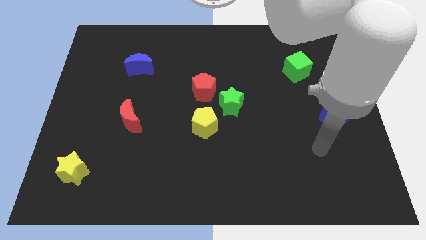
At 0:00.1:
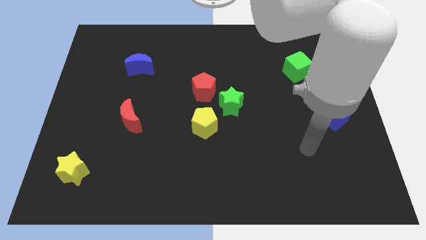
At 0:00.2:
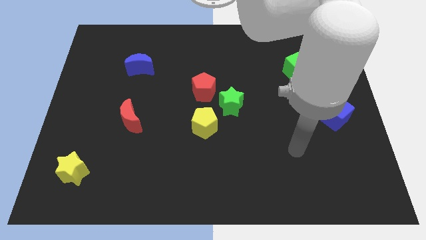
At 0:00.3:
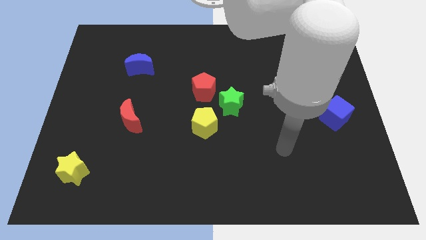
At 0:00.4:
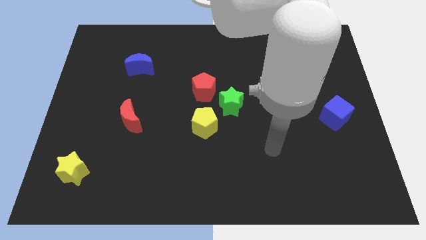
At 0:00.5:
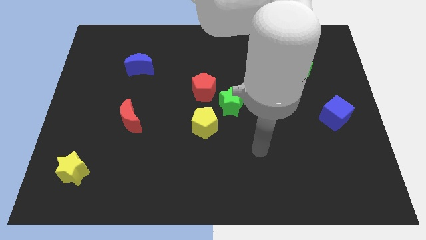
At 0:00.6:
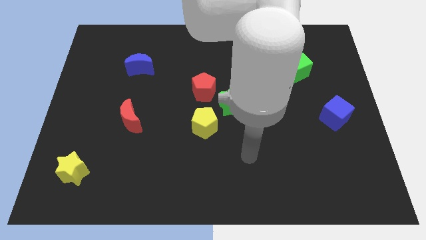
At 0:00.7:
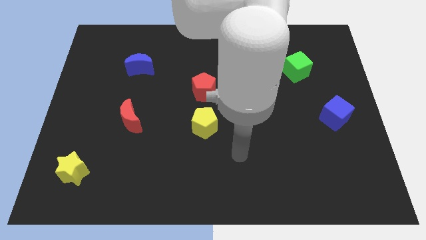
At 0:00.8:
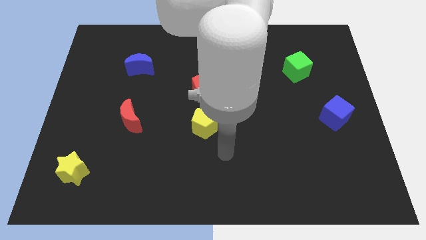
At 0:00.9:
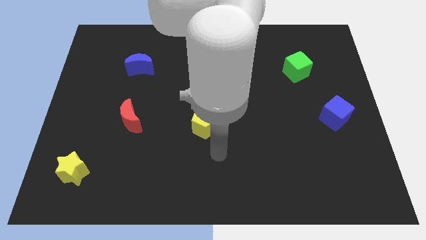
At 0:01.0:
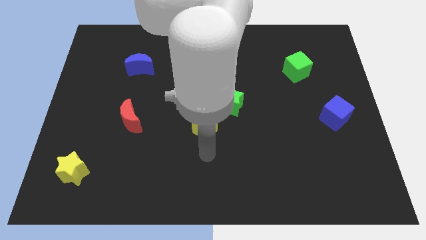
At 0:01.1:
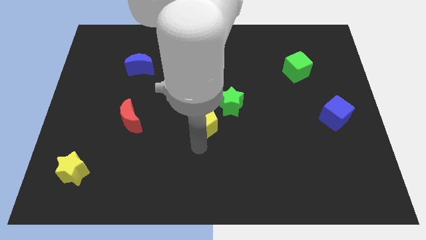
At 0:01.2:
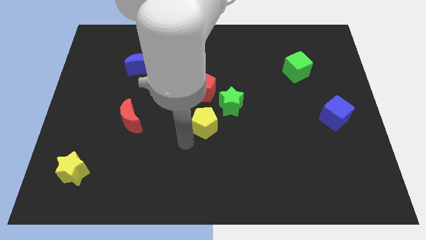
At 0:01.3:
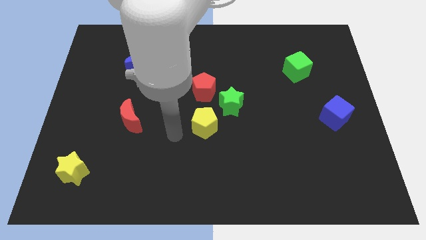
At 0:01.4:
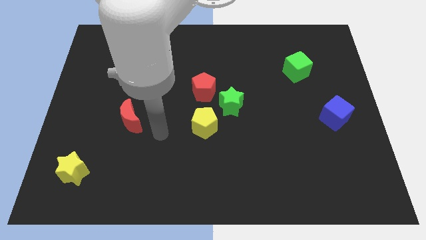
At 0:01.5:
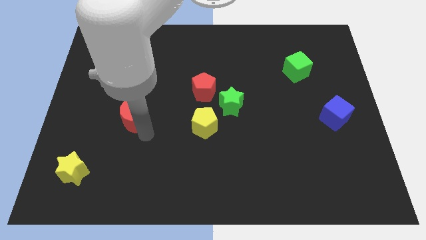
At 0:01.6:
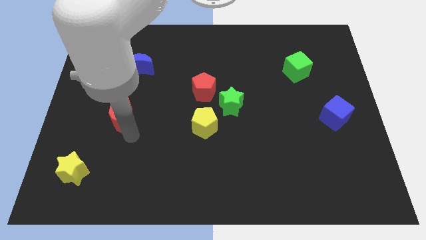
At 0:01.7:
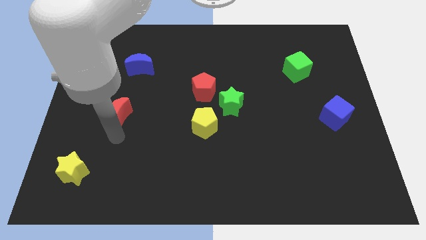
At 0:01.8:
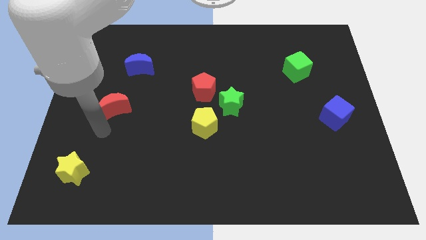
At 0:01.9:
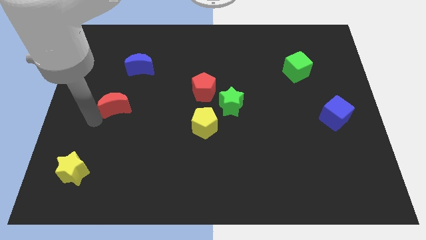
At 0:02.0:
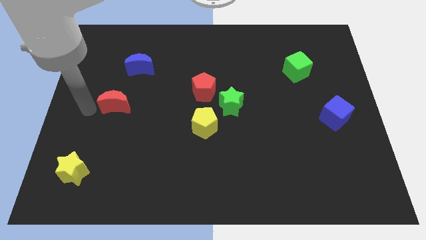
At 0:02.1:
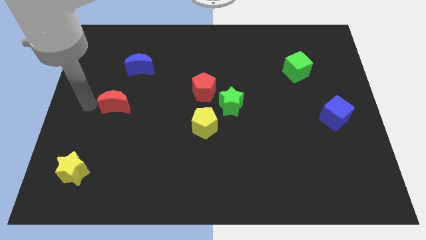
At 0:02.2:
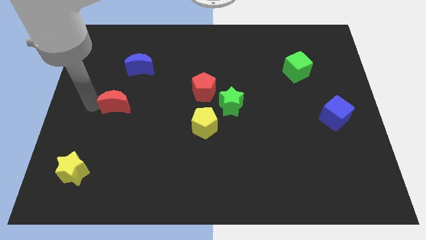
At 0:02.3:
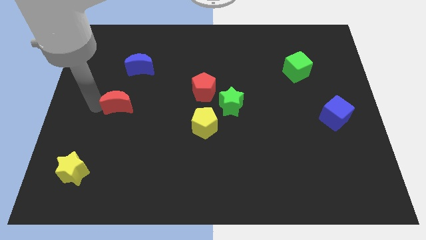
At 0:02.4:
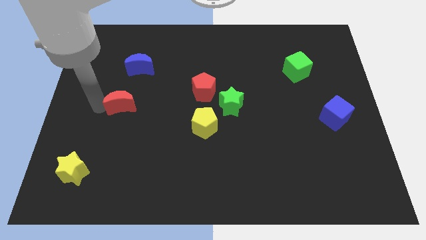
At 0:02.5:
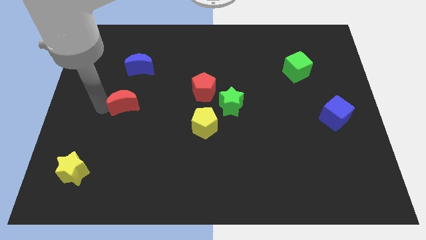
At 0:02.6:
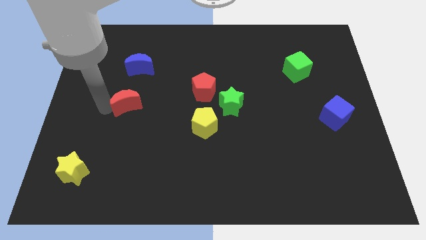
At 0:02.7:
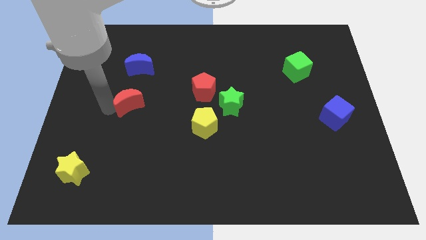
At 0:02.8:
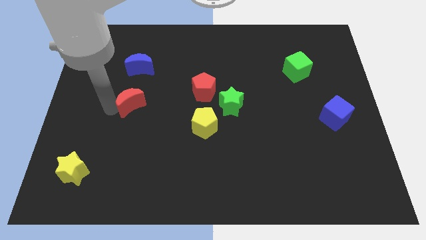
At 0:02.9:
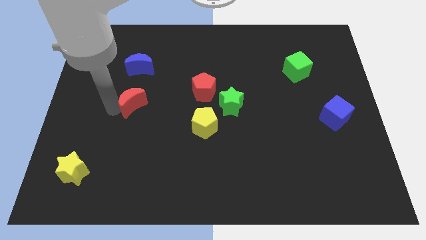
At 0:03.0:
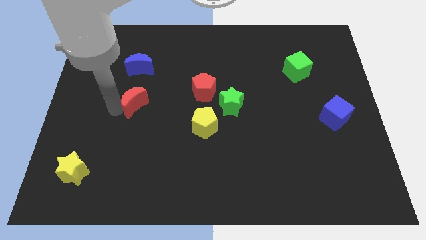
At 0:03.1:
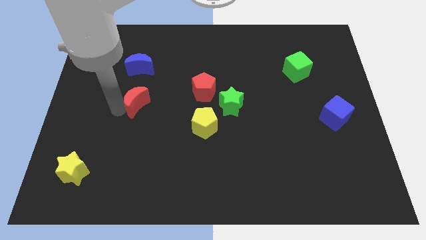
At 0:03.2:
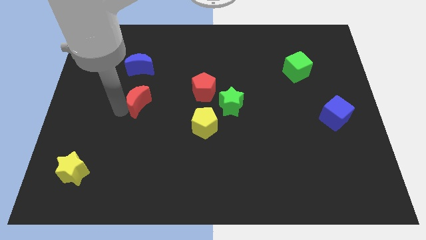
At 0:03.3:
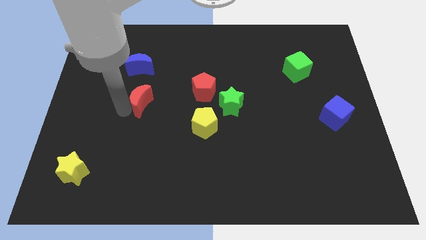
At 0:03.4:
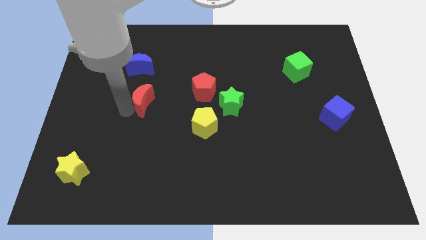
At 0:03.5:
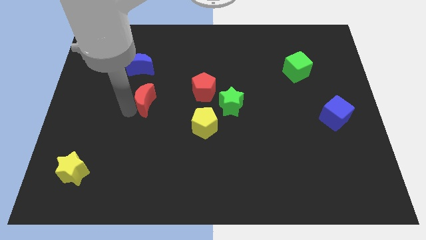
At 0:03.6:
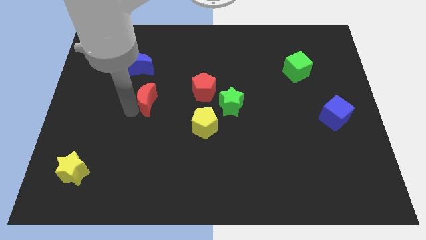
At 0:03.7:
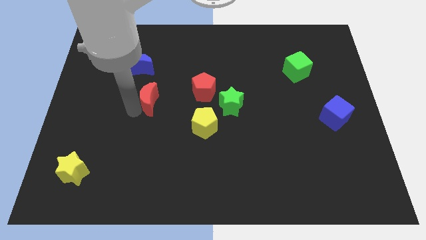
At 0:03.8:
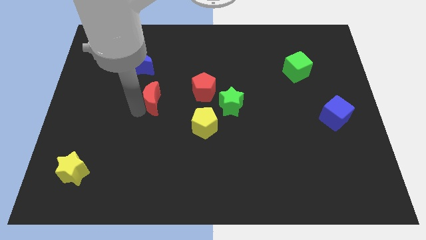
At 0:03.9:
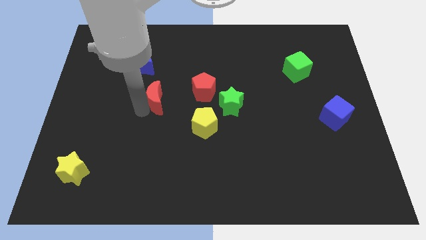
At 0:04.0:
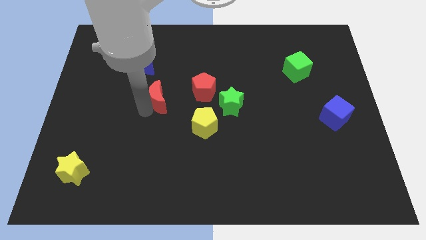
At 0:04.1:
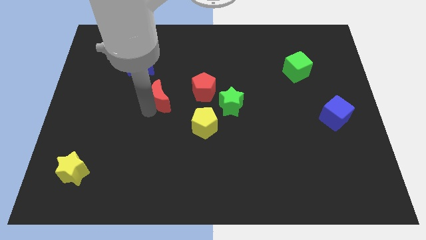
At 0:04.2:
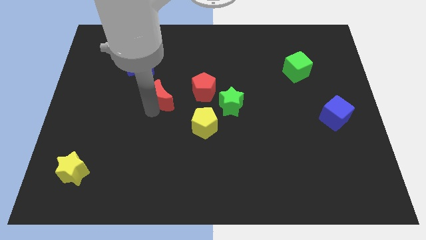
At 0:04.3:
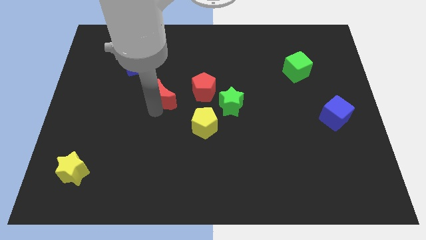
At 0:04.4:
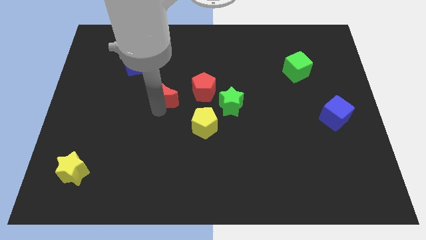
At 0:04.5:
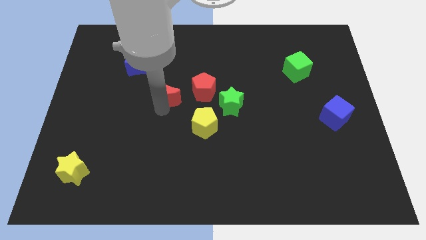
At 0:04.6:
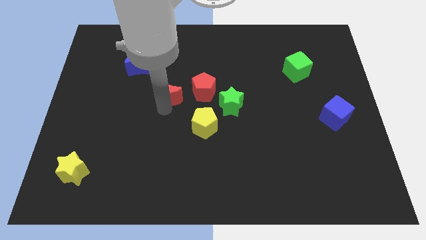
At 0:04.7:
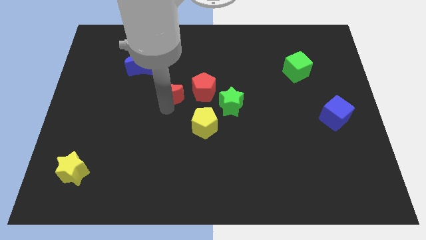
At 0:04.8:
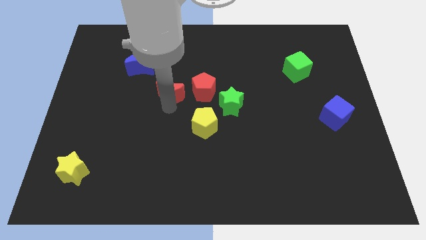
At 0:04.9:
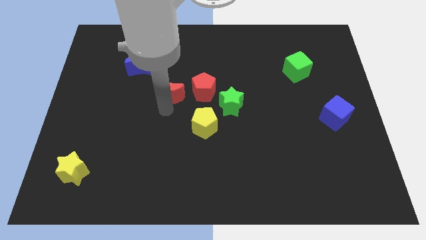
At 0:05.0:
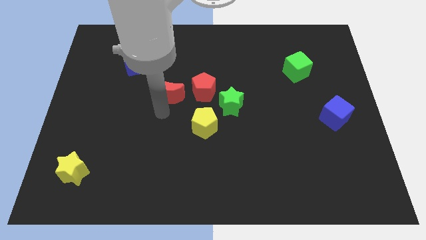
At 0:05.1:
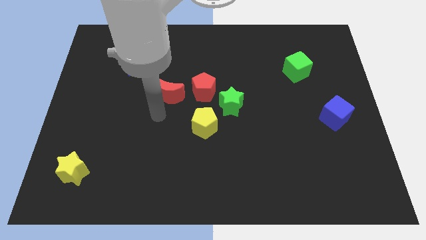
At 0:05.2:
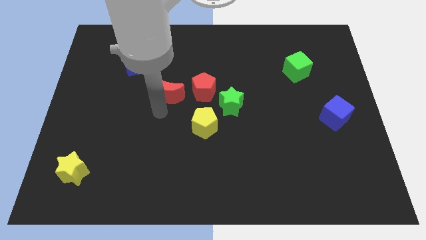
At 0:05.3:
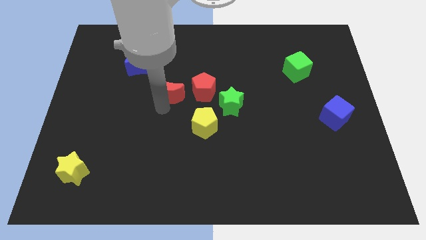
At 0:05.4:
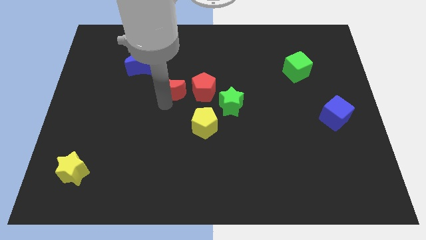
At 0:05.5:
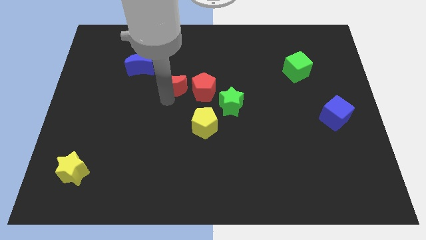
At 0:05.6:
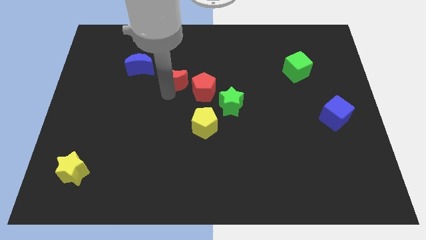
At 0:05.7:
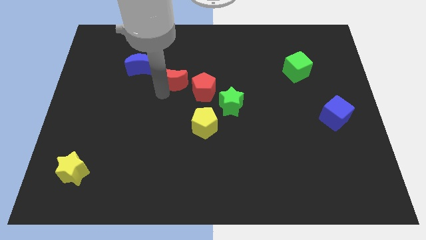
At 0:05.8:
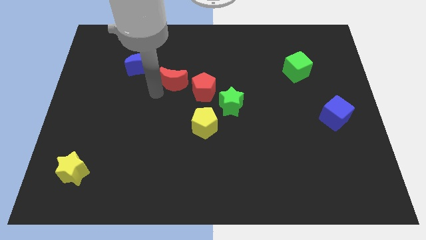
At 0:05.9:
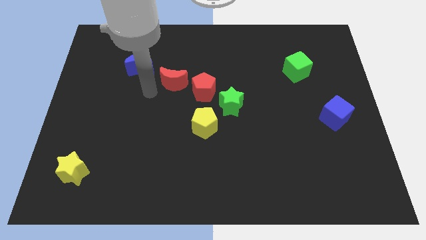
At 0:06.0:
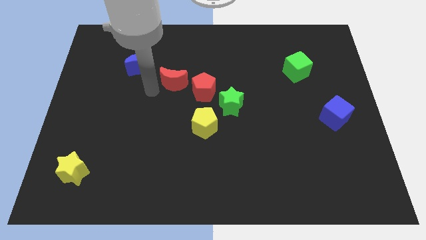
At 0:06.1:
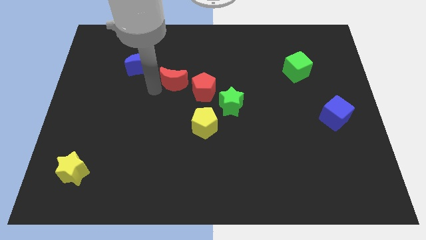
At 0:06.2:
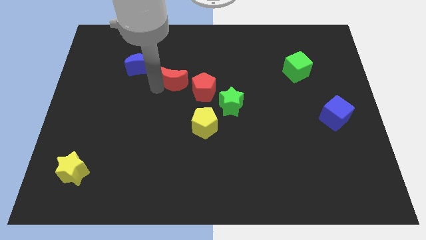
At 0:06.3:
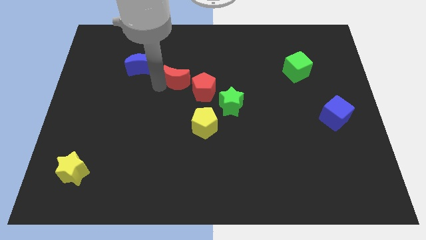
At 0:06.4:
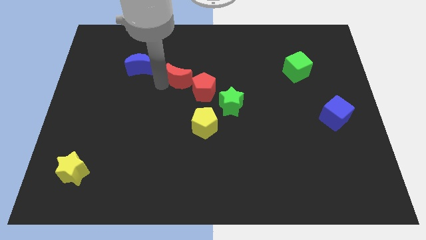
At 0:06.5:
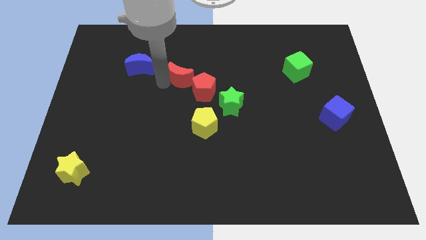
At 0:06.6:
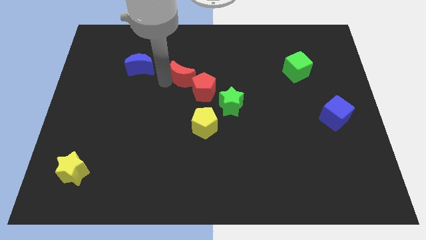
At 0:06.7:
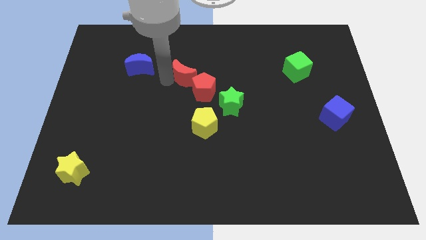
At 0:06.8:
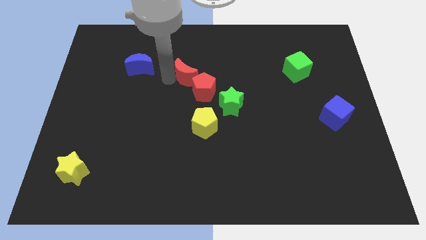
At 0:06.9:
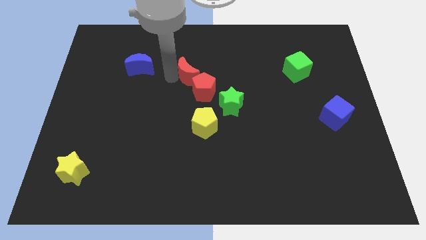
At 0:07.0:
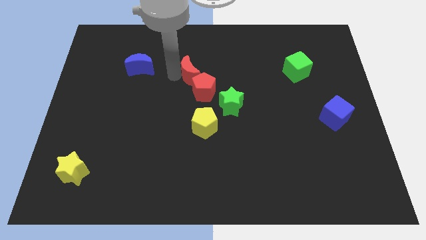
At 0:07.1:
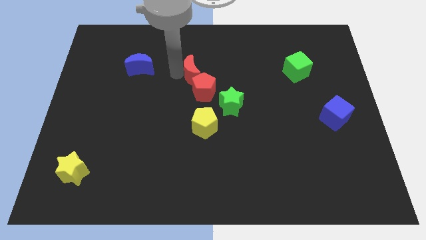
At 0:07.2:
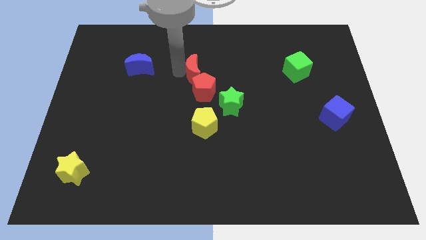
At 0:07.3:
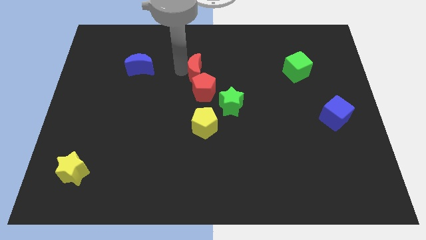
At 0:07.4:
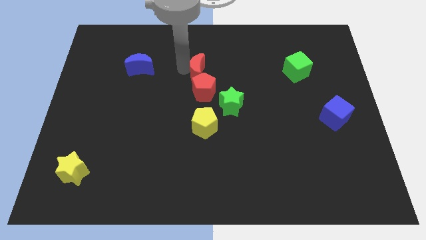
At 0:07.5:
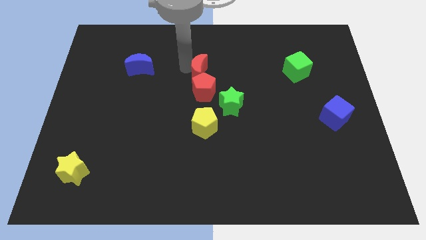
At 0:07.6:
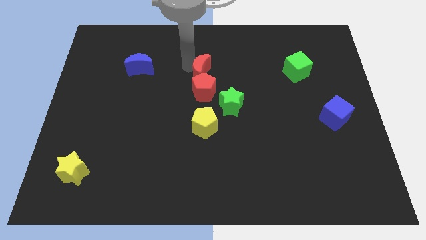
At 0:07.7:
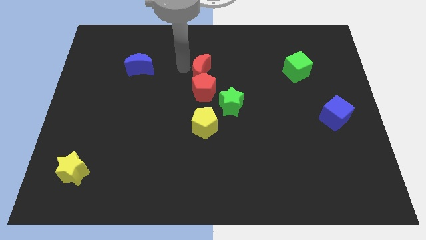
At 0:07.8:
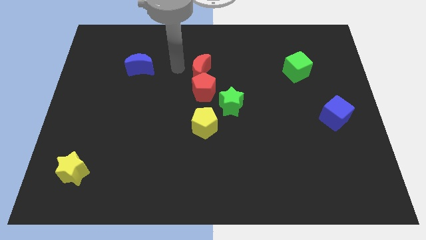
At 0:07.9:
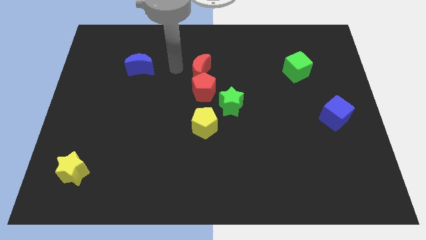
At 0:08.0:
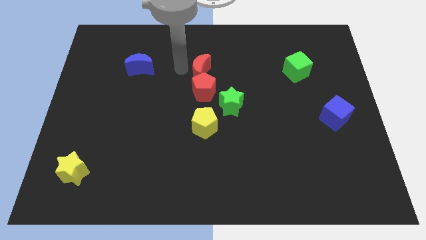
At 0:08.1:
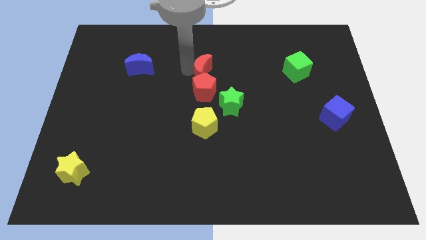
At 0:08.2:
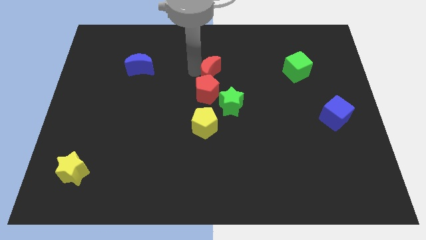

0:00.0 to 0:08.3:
slide the red moon diagonally up and to the right of the red pentagon
